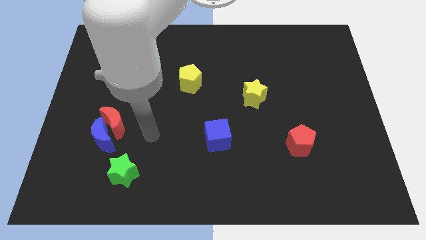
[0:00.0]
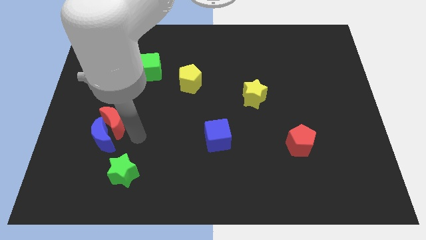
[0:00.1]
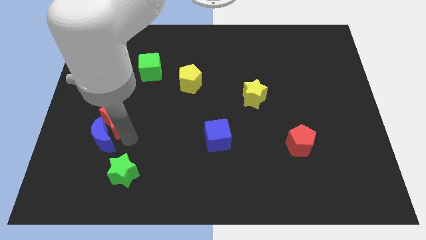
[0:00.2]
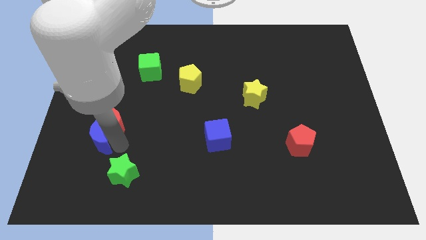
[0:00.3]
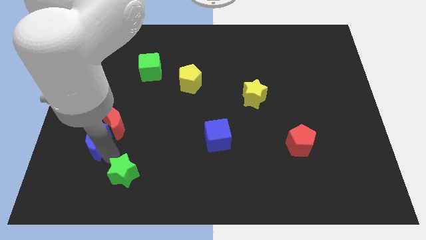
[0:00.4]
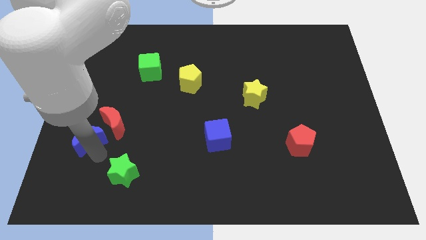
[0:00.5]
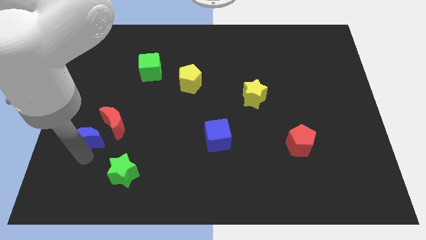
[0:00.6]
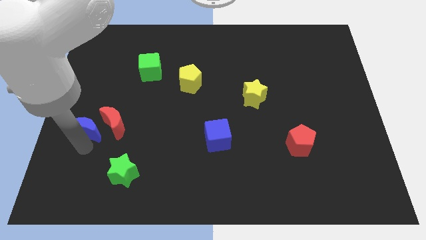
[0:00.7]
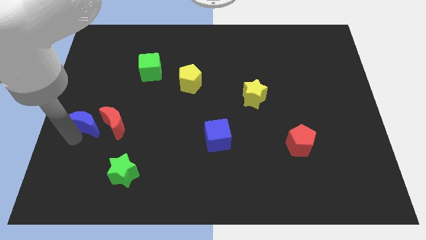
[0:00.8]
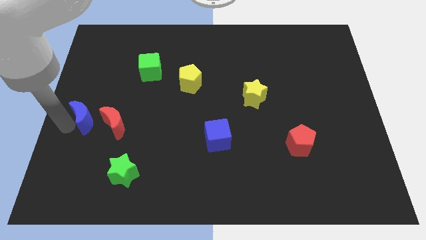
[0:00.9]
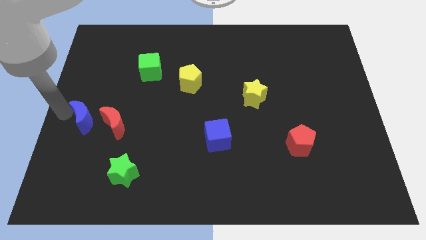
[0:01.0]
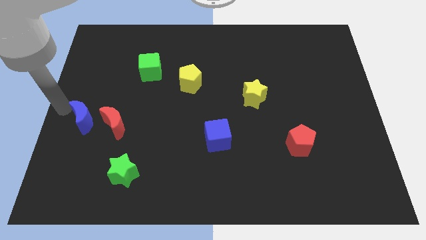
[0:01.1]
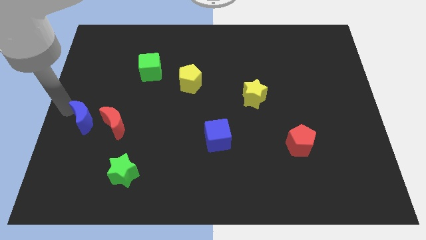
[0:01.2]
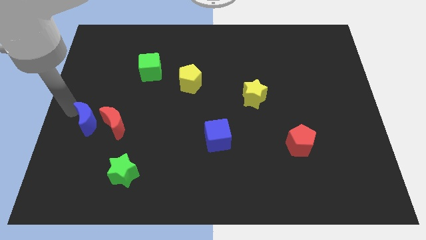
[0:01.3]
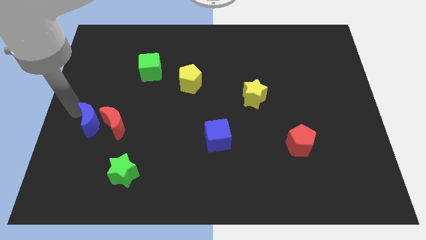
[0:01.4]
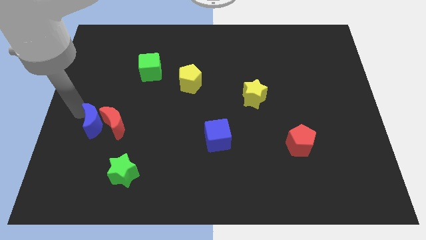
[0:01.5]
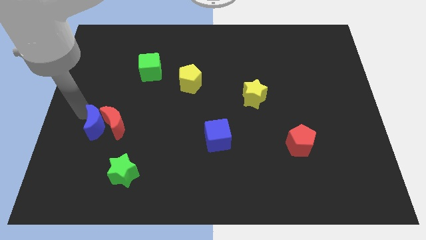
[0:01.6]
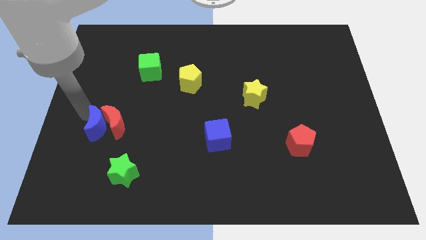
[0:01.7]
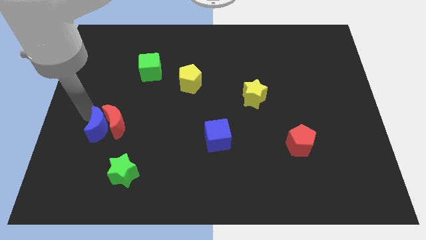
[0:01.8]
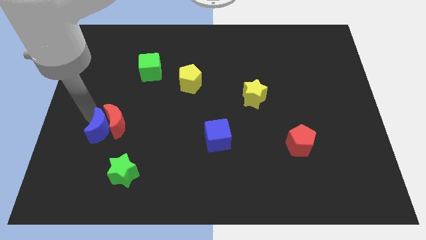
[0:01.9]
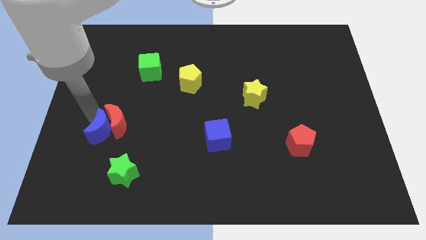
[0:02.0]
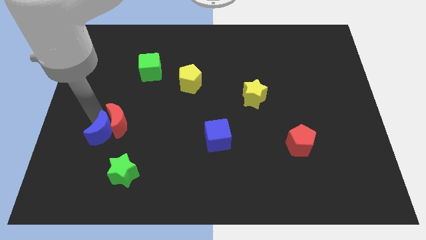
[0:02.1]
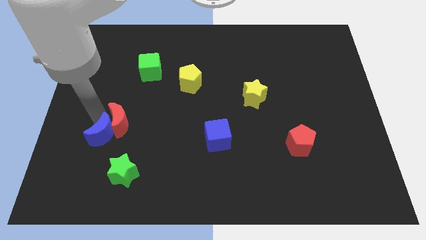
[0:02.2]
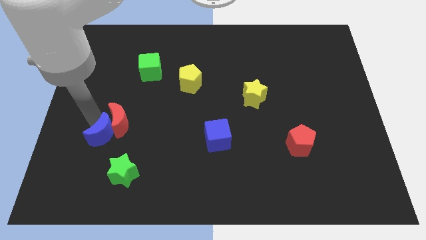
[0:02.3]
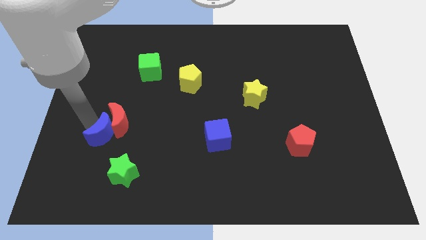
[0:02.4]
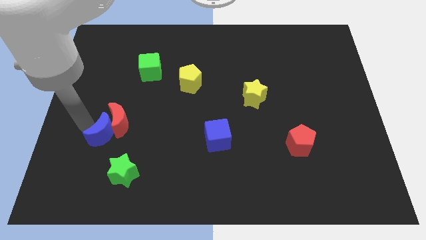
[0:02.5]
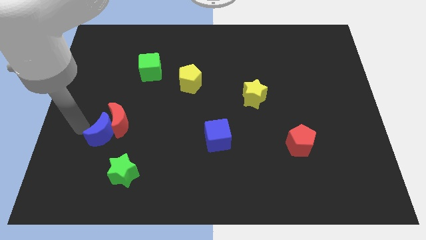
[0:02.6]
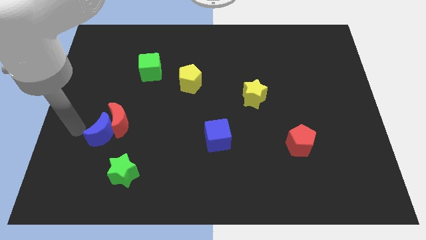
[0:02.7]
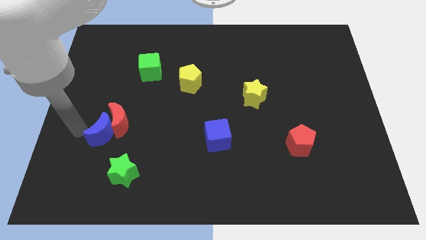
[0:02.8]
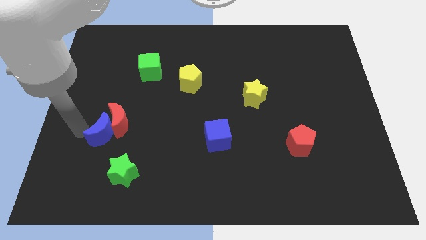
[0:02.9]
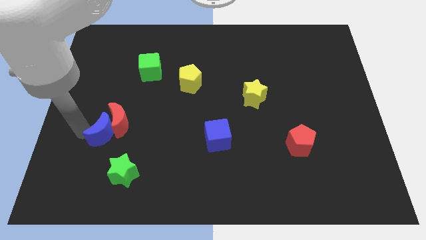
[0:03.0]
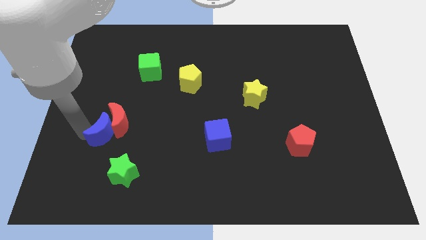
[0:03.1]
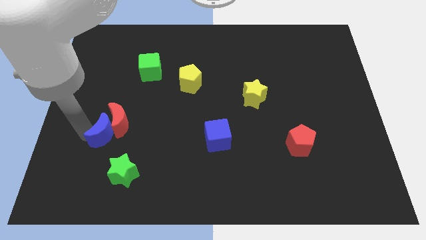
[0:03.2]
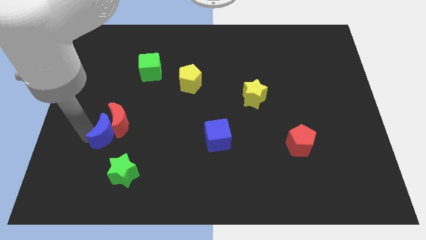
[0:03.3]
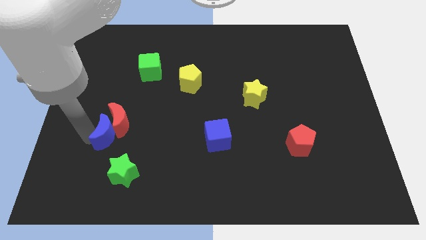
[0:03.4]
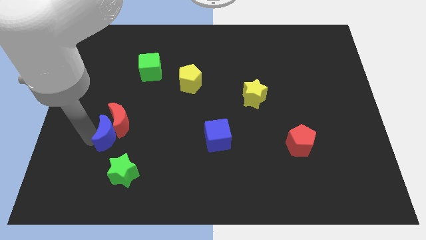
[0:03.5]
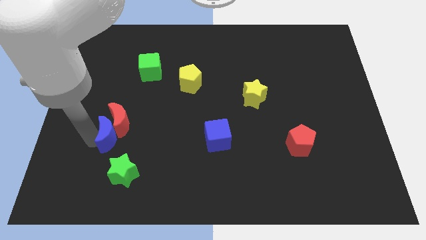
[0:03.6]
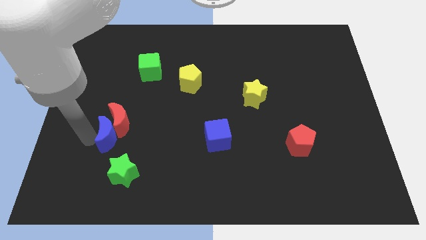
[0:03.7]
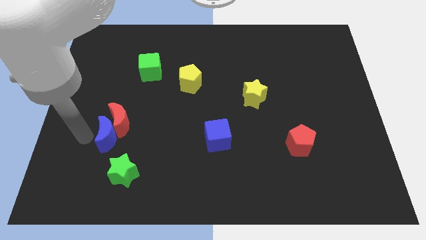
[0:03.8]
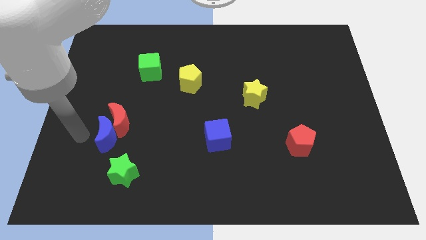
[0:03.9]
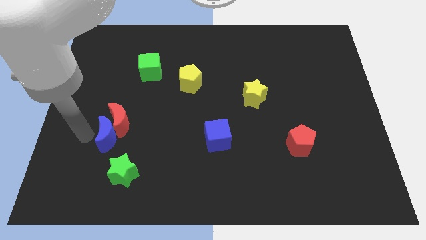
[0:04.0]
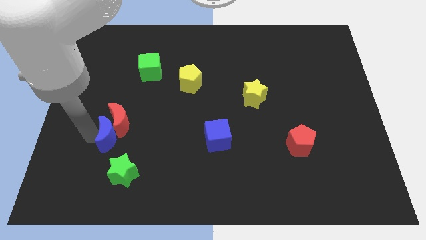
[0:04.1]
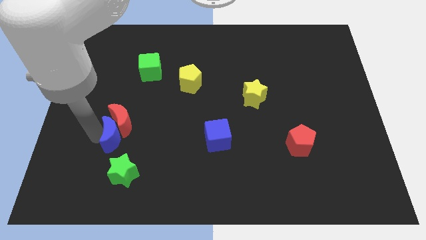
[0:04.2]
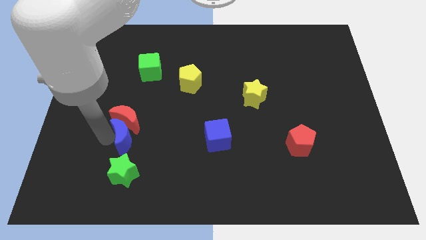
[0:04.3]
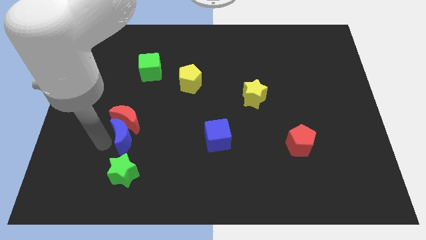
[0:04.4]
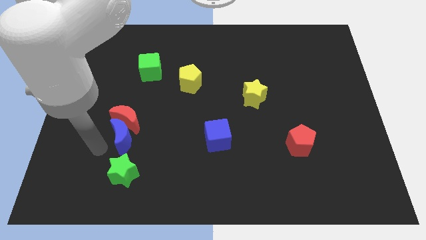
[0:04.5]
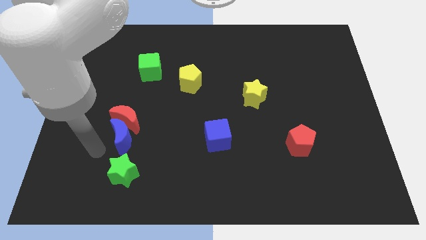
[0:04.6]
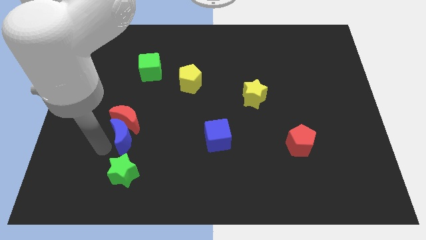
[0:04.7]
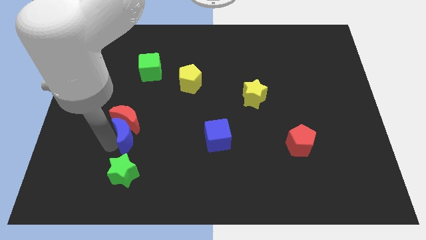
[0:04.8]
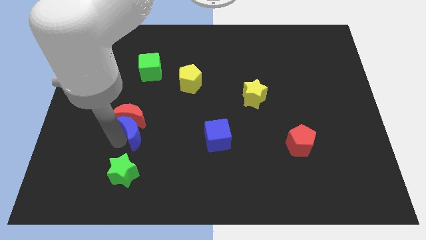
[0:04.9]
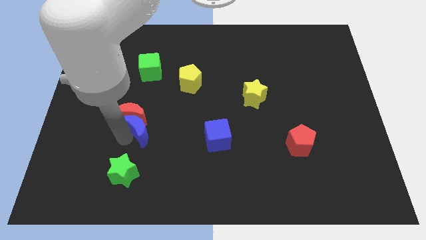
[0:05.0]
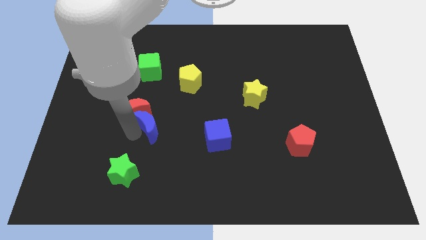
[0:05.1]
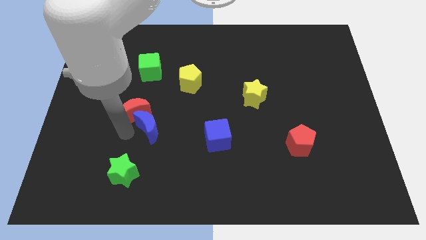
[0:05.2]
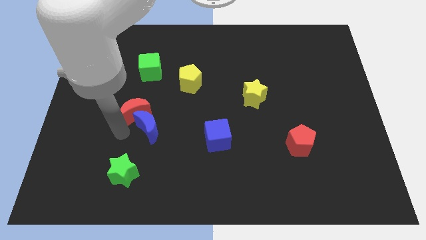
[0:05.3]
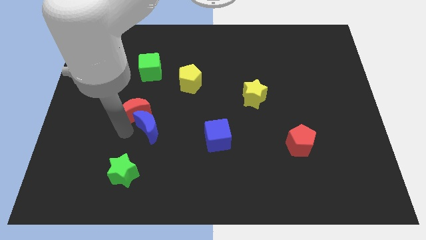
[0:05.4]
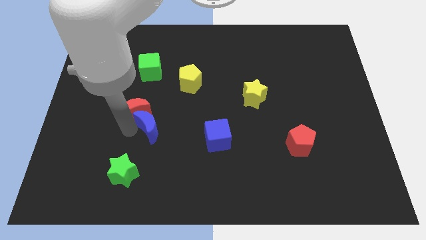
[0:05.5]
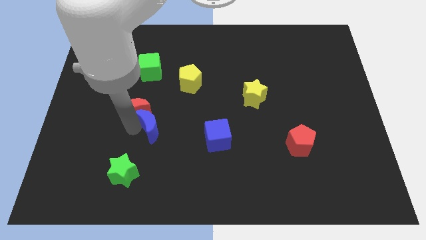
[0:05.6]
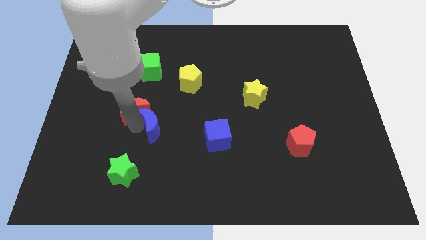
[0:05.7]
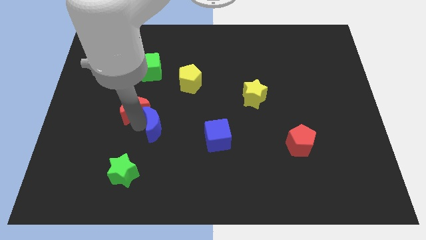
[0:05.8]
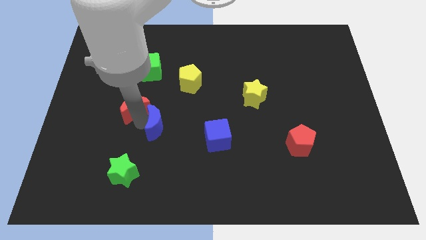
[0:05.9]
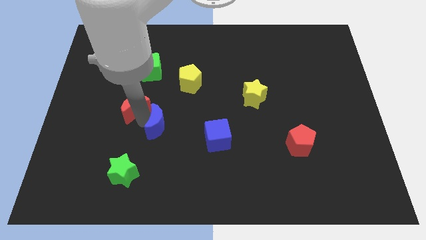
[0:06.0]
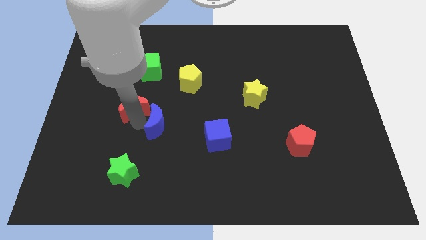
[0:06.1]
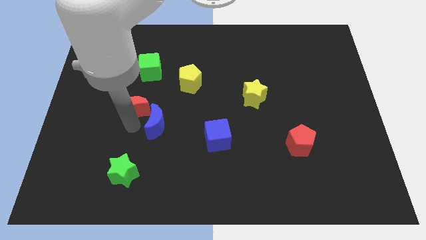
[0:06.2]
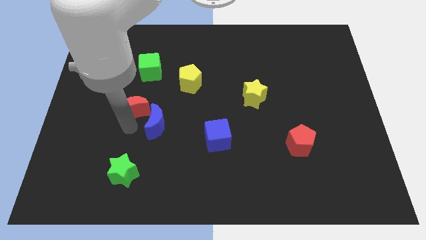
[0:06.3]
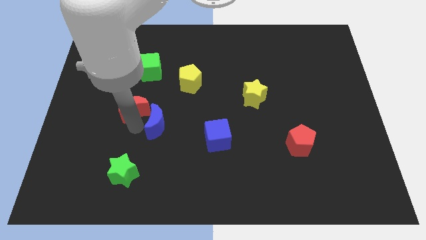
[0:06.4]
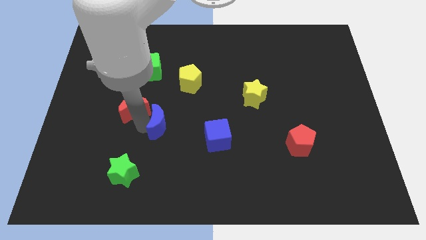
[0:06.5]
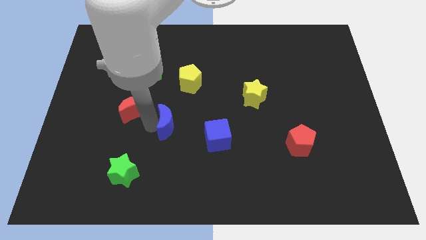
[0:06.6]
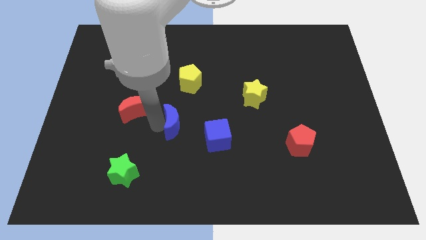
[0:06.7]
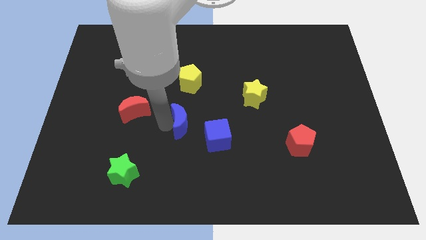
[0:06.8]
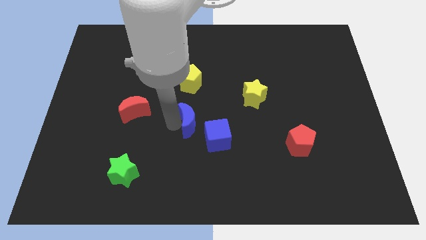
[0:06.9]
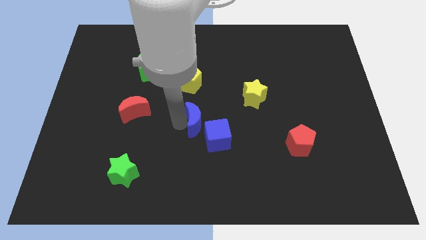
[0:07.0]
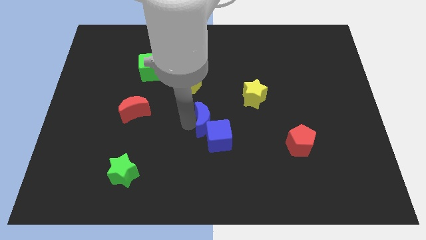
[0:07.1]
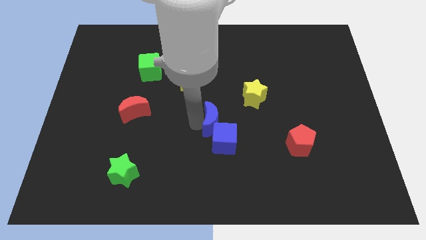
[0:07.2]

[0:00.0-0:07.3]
push the blue moon to the bottom left side of the yellow star
